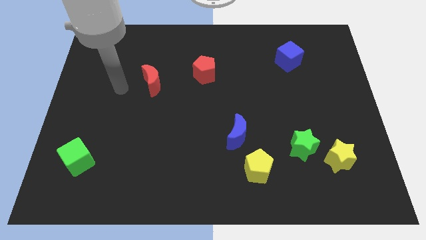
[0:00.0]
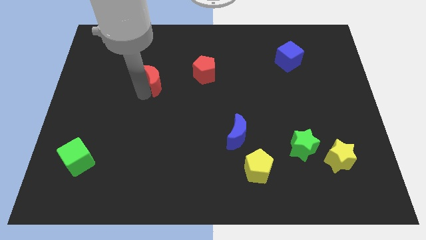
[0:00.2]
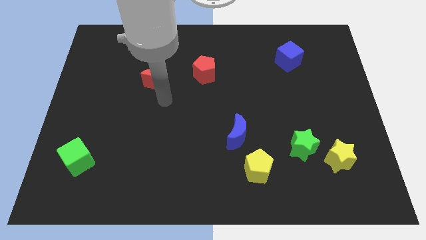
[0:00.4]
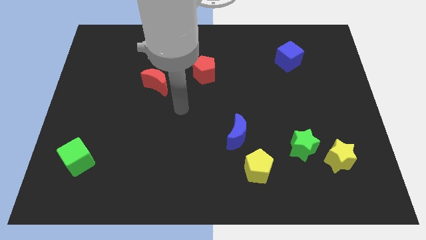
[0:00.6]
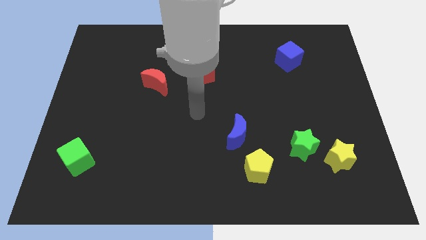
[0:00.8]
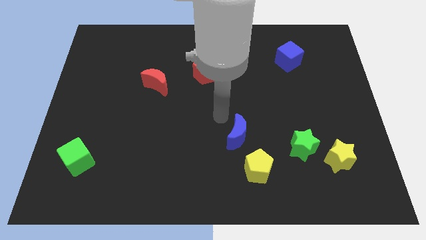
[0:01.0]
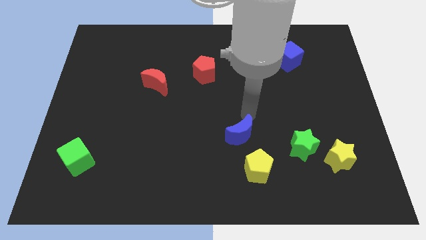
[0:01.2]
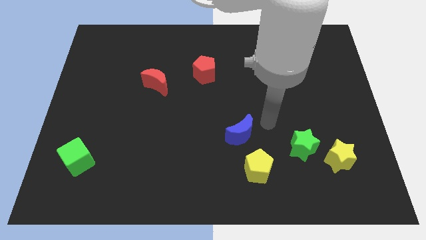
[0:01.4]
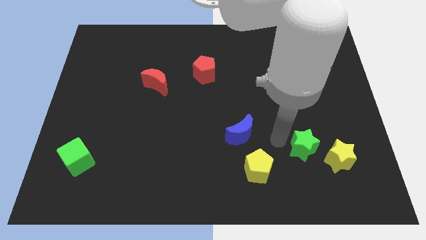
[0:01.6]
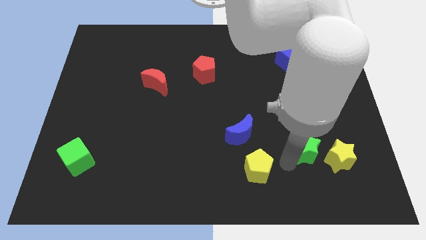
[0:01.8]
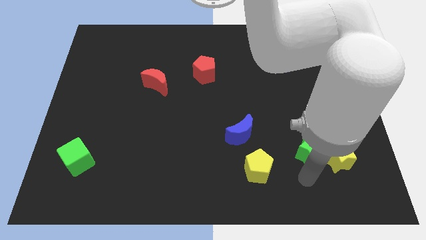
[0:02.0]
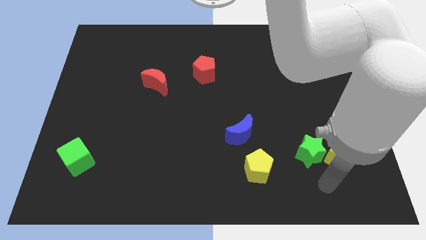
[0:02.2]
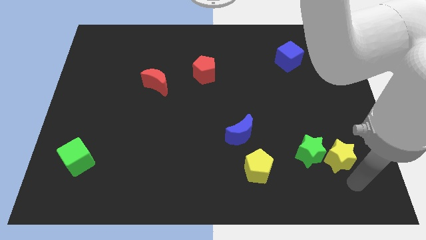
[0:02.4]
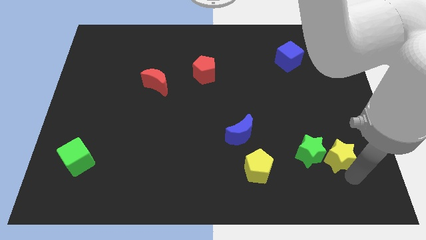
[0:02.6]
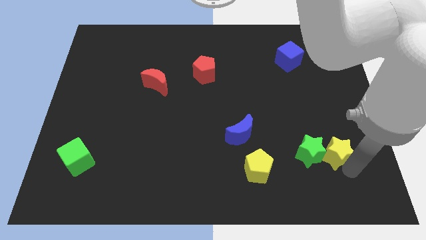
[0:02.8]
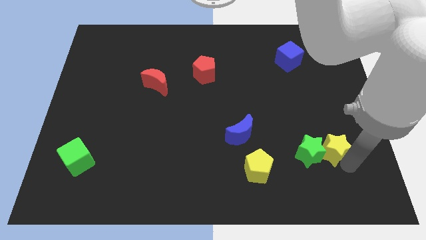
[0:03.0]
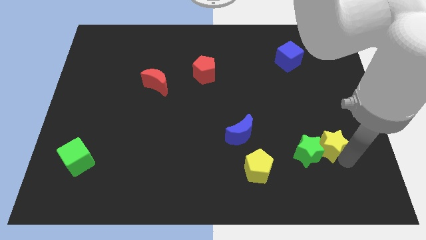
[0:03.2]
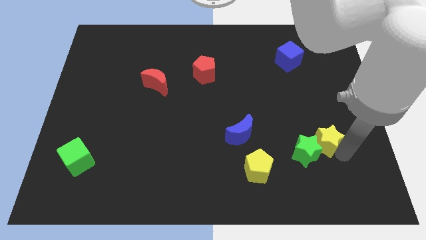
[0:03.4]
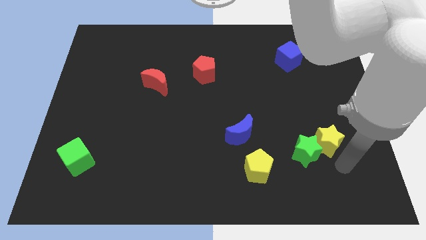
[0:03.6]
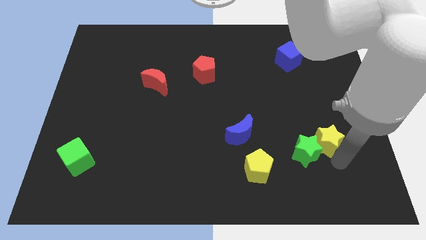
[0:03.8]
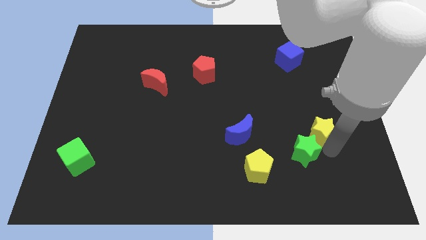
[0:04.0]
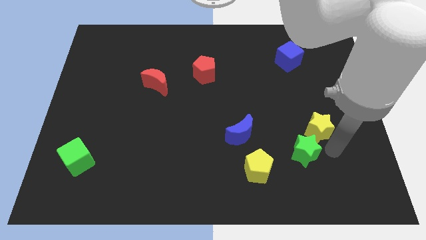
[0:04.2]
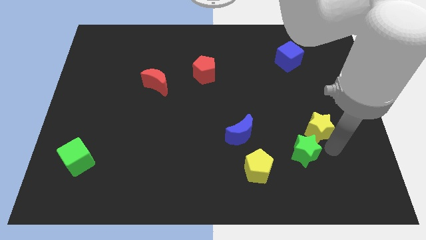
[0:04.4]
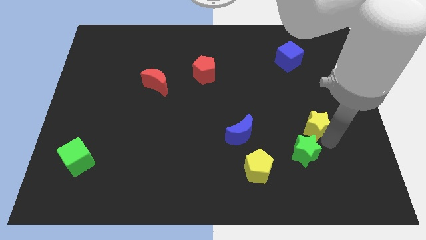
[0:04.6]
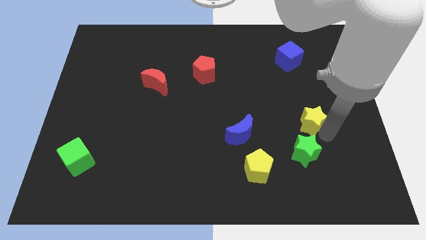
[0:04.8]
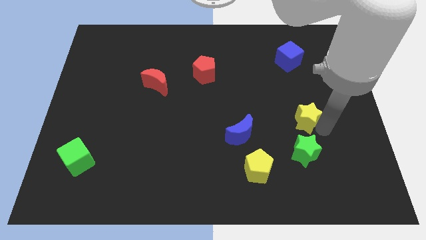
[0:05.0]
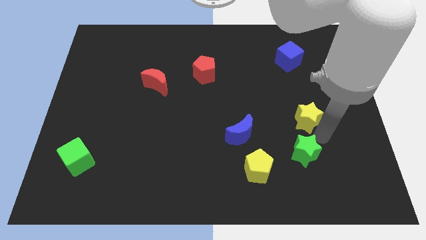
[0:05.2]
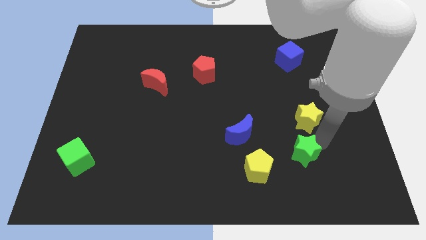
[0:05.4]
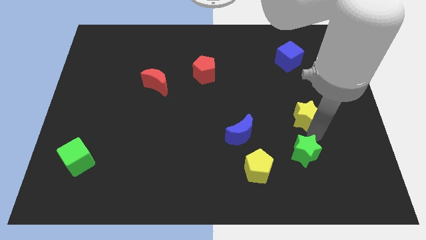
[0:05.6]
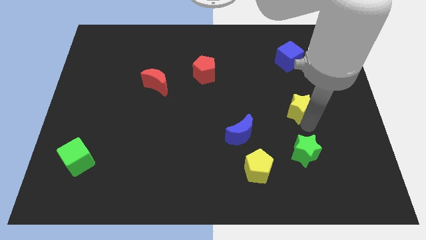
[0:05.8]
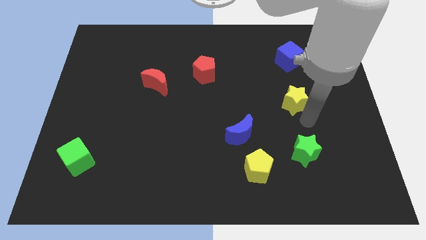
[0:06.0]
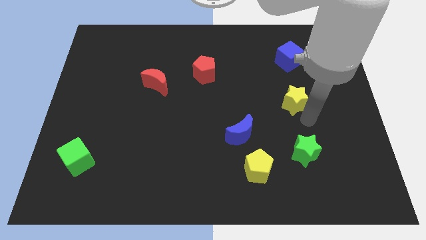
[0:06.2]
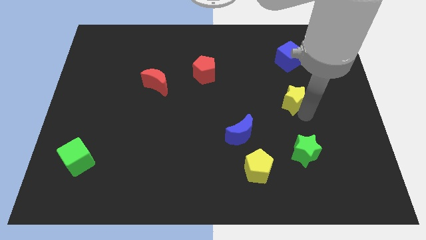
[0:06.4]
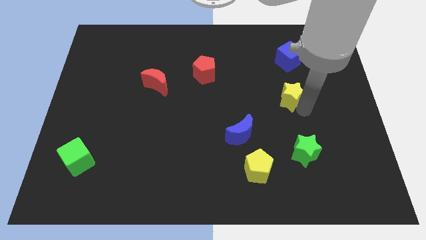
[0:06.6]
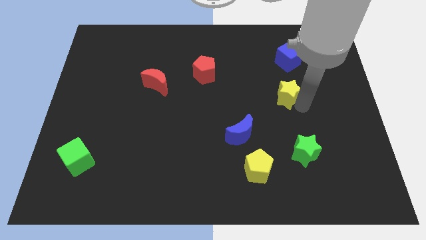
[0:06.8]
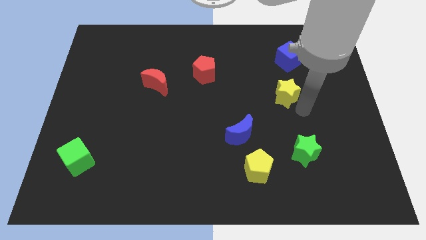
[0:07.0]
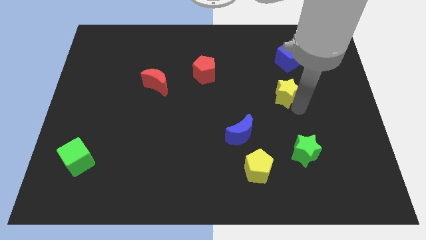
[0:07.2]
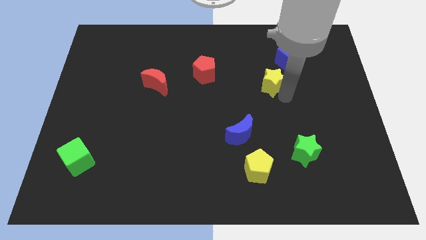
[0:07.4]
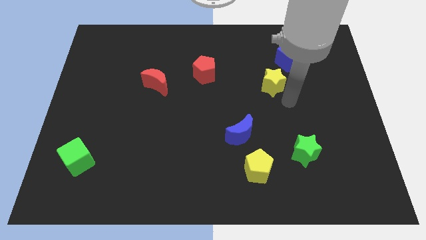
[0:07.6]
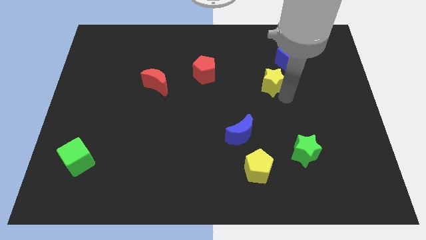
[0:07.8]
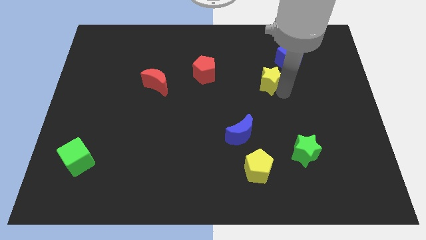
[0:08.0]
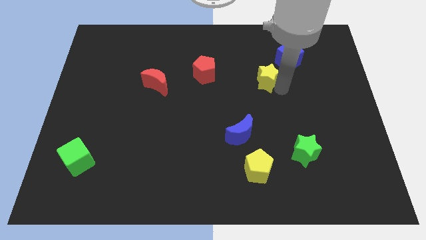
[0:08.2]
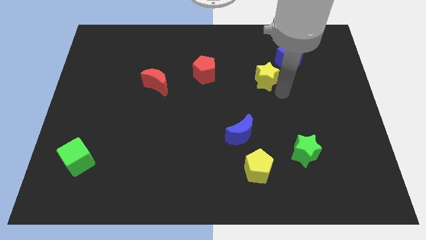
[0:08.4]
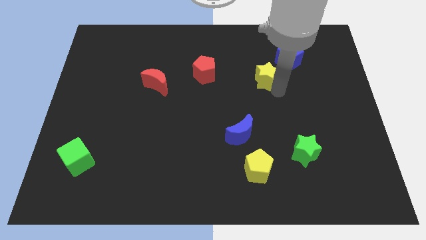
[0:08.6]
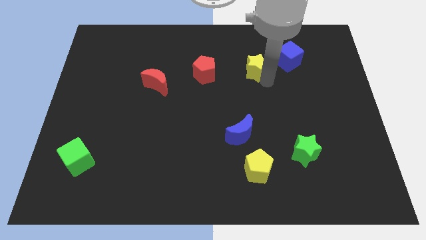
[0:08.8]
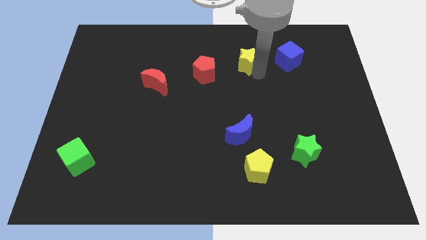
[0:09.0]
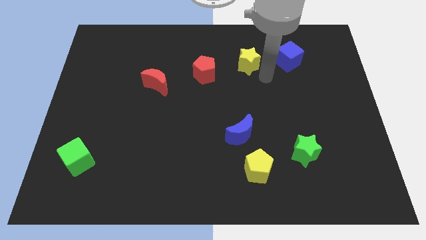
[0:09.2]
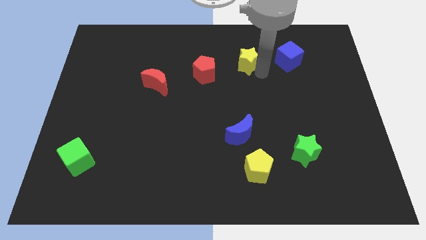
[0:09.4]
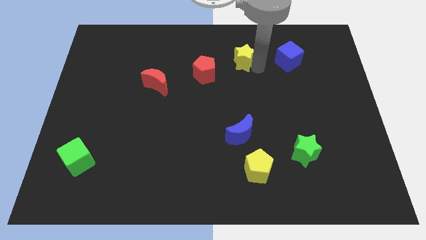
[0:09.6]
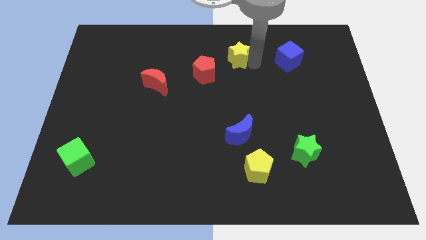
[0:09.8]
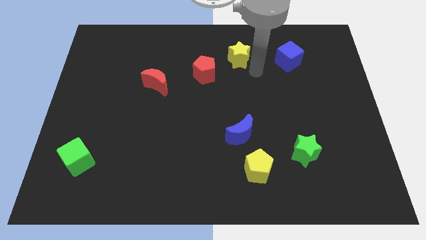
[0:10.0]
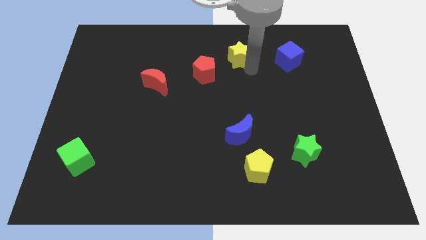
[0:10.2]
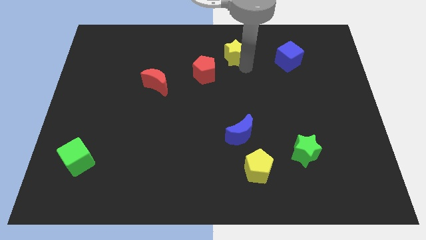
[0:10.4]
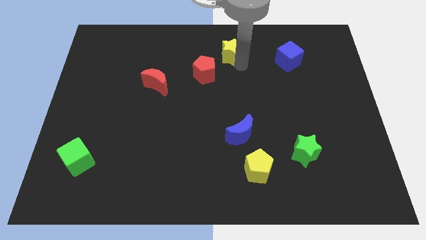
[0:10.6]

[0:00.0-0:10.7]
move the yellow star to the top

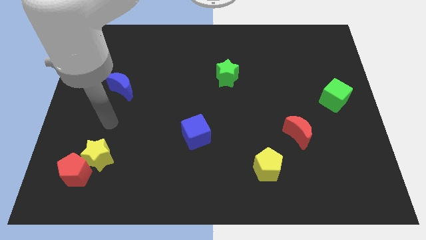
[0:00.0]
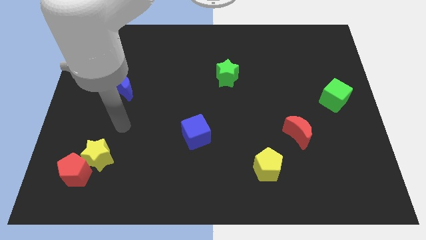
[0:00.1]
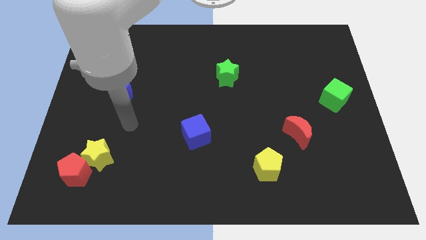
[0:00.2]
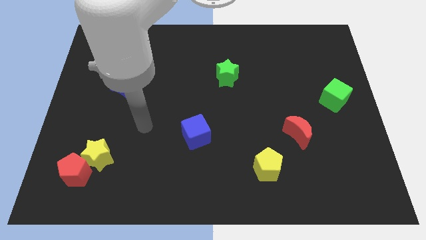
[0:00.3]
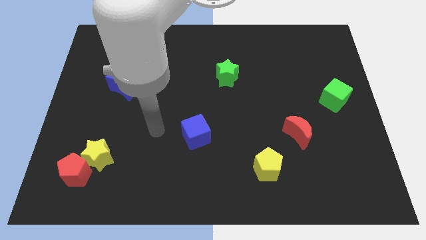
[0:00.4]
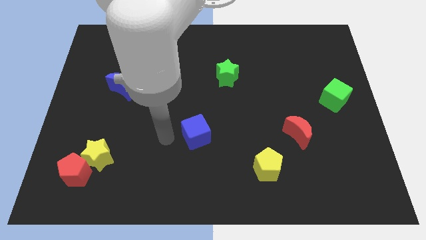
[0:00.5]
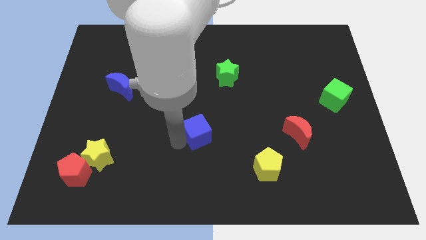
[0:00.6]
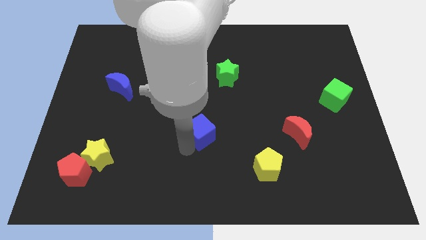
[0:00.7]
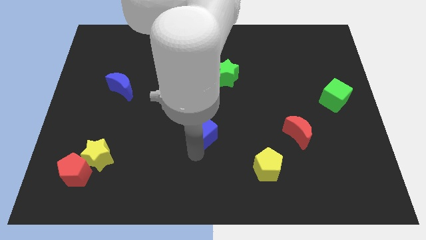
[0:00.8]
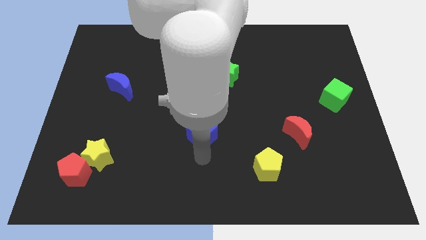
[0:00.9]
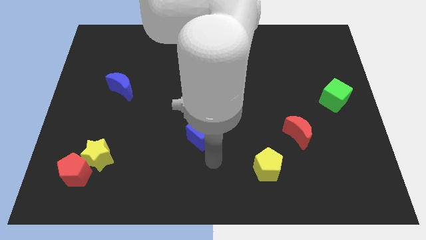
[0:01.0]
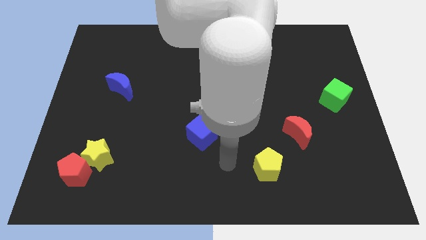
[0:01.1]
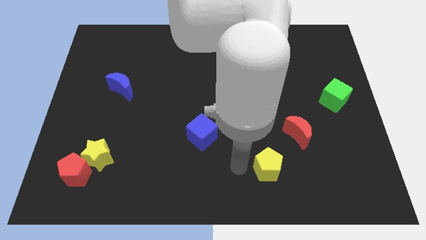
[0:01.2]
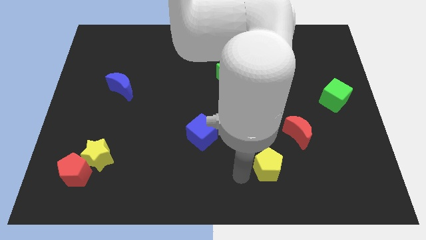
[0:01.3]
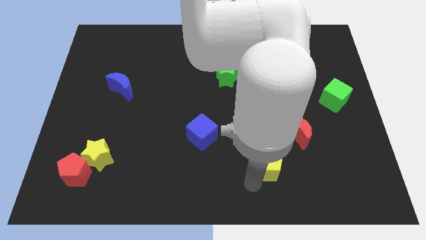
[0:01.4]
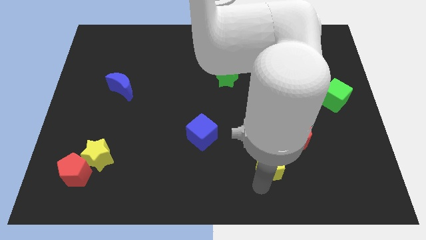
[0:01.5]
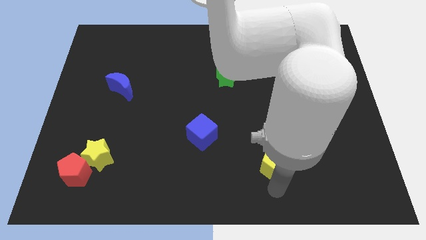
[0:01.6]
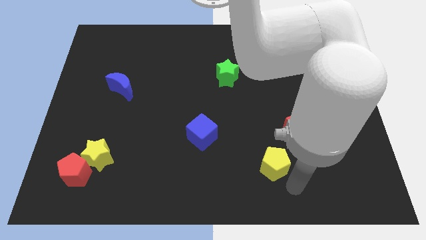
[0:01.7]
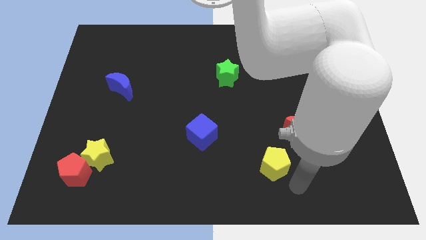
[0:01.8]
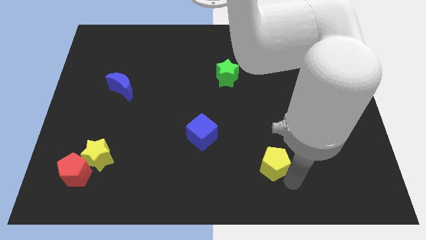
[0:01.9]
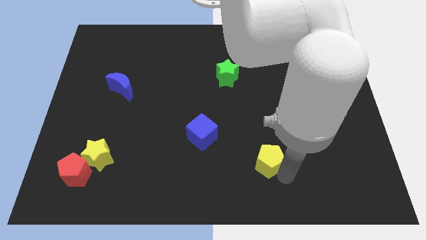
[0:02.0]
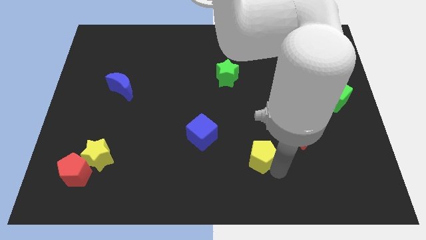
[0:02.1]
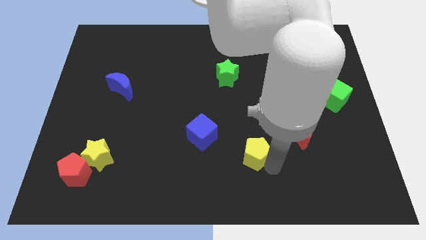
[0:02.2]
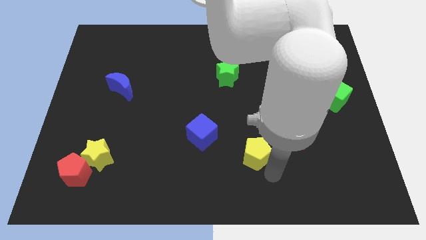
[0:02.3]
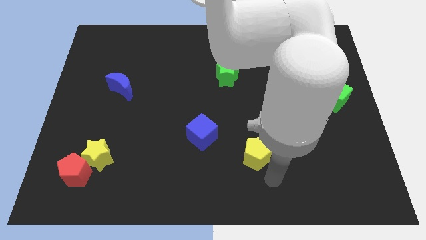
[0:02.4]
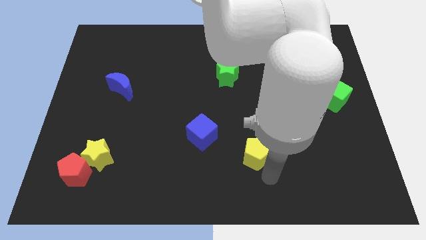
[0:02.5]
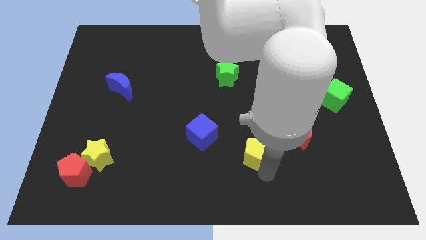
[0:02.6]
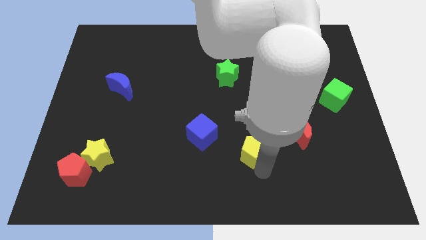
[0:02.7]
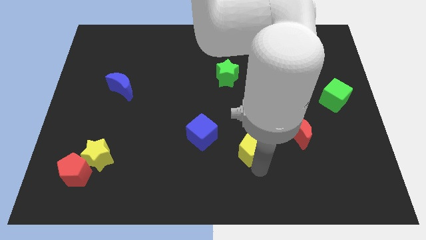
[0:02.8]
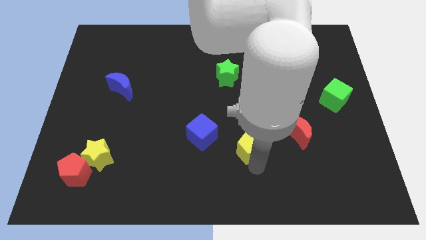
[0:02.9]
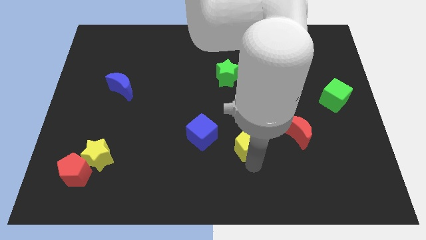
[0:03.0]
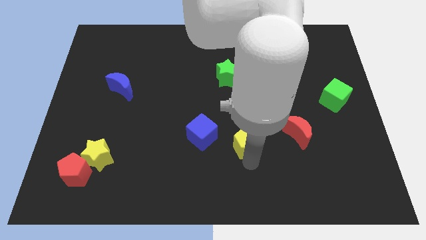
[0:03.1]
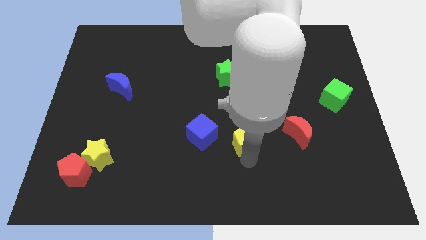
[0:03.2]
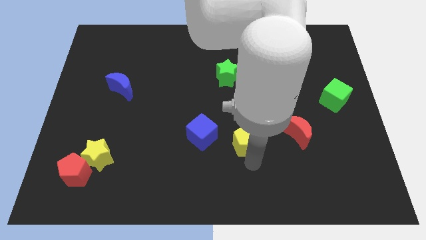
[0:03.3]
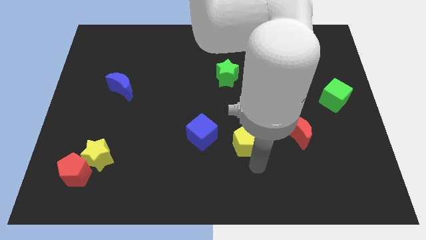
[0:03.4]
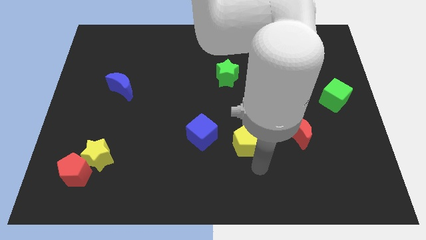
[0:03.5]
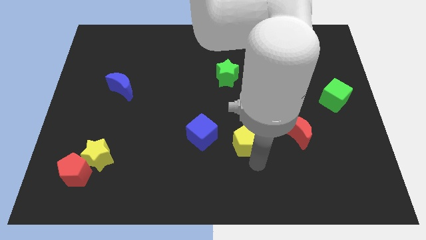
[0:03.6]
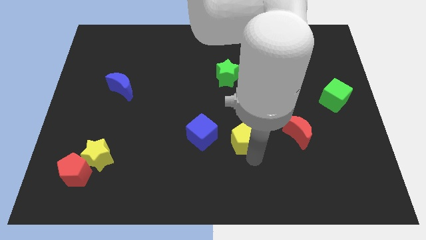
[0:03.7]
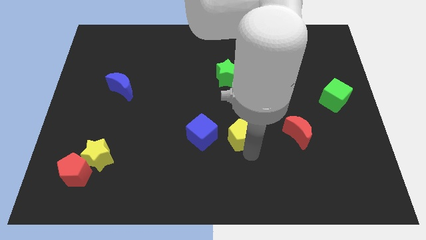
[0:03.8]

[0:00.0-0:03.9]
slide the yellow pentagon to the middle
